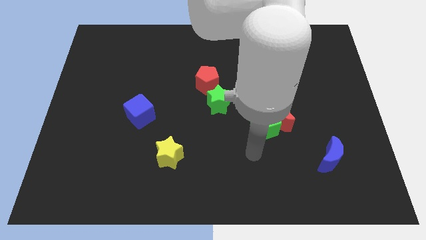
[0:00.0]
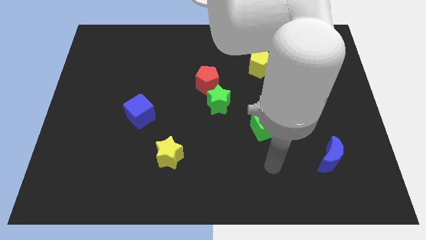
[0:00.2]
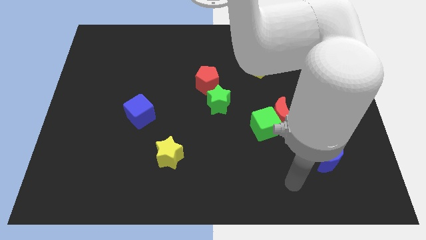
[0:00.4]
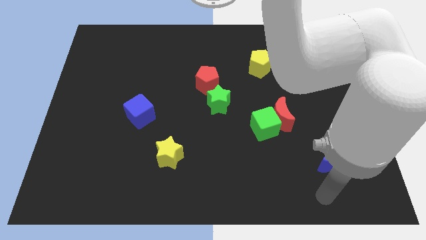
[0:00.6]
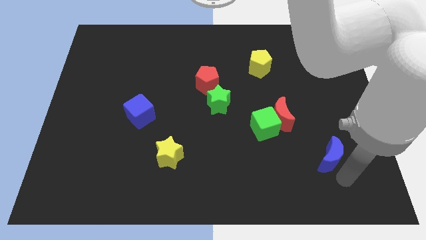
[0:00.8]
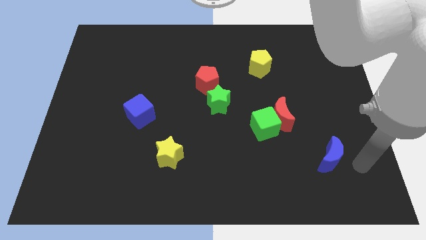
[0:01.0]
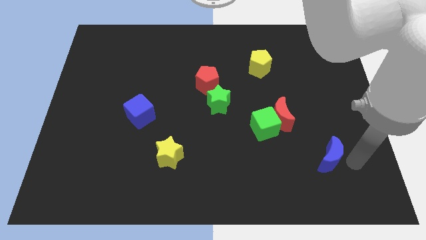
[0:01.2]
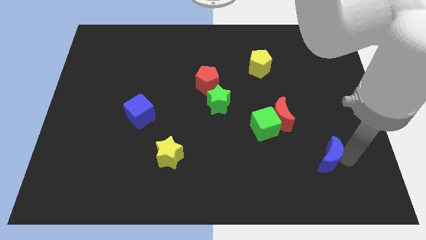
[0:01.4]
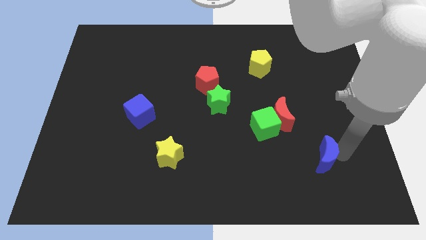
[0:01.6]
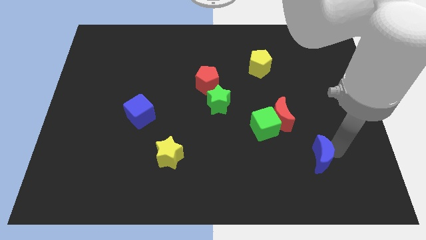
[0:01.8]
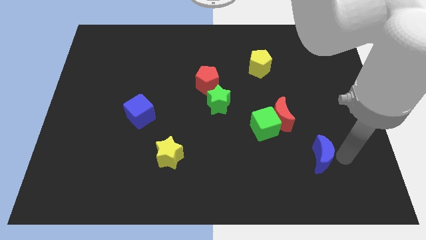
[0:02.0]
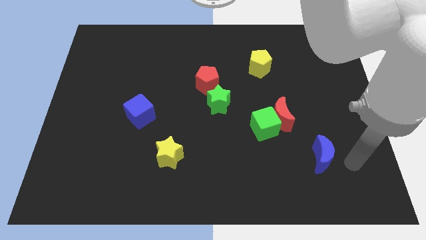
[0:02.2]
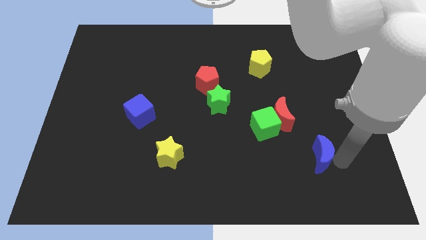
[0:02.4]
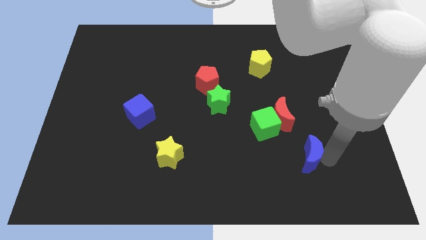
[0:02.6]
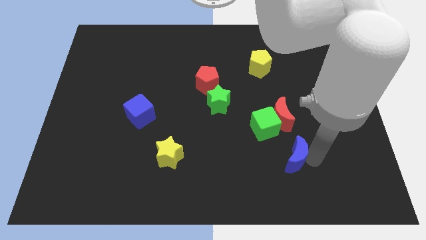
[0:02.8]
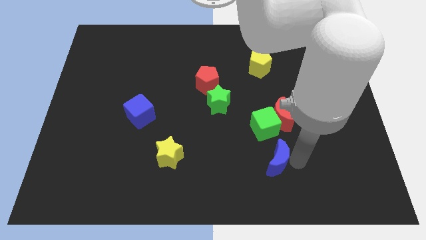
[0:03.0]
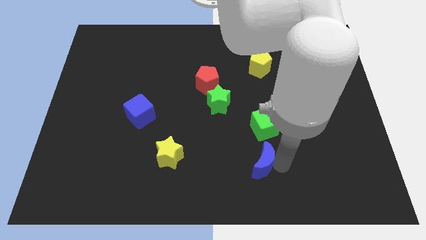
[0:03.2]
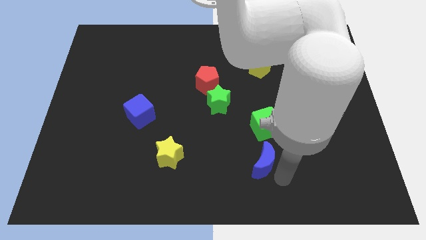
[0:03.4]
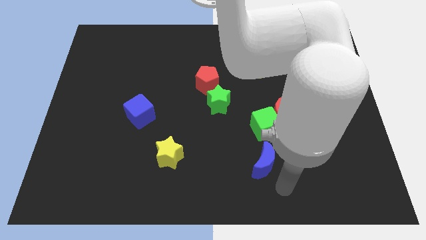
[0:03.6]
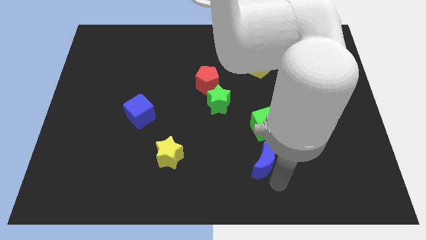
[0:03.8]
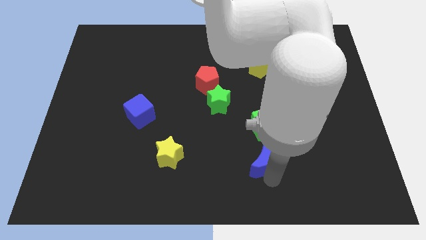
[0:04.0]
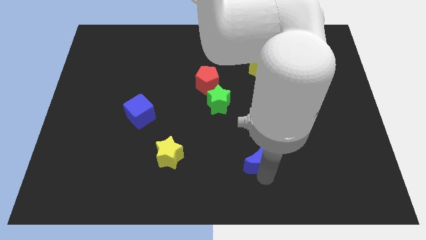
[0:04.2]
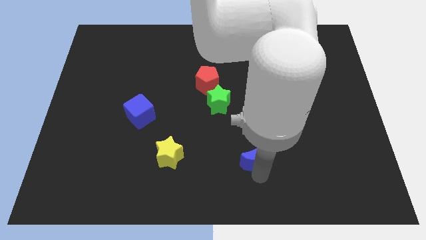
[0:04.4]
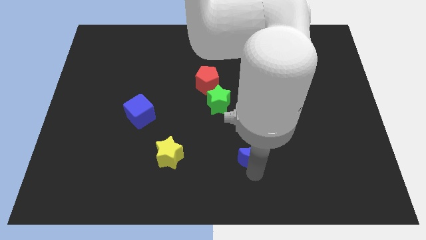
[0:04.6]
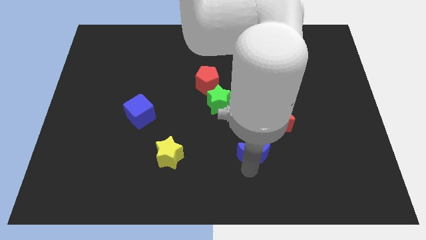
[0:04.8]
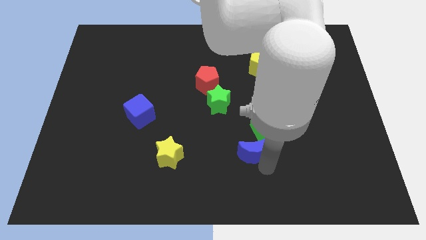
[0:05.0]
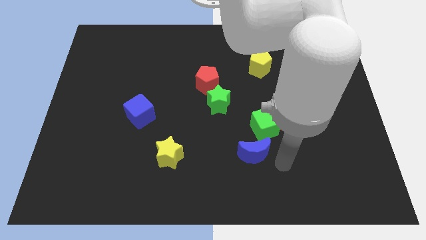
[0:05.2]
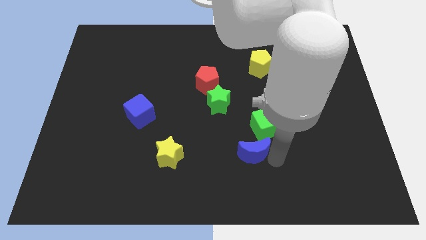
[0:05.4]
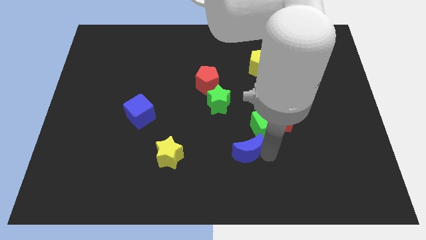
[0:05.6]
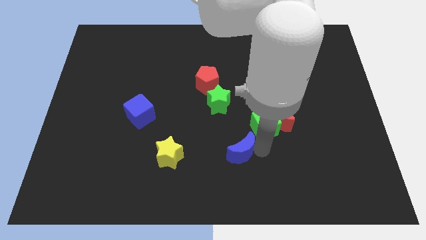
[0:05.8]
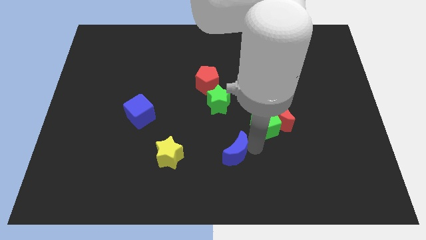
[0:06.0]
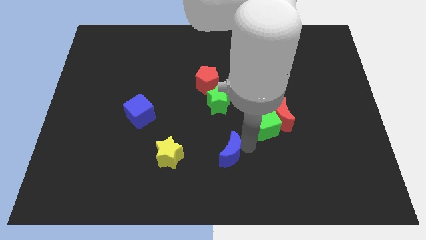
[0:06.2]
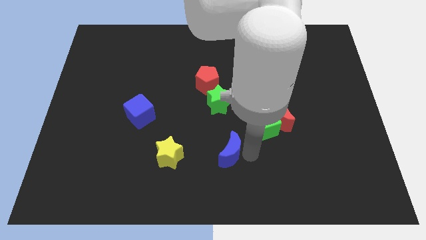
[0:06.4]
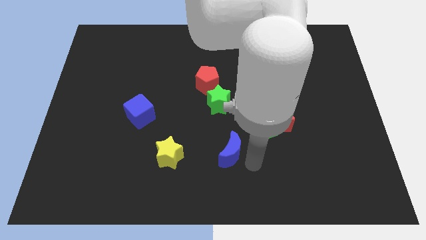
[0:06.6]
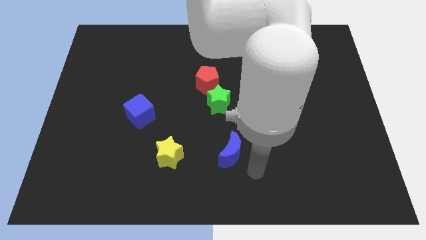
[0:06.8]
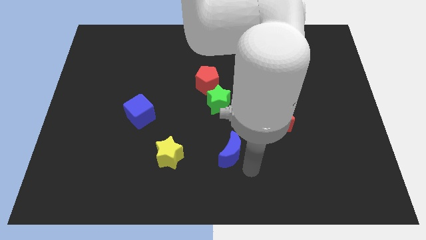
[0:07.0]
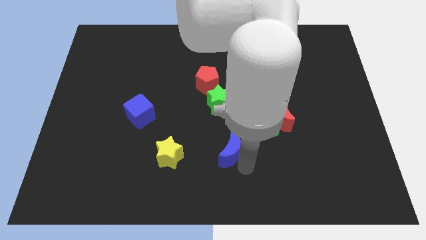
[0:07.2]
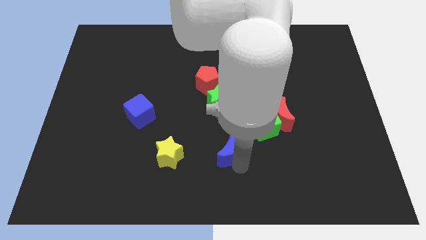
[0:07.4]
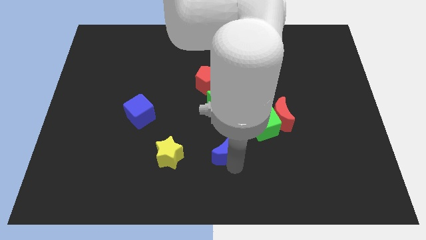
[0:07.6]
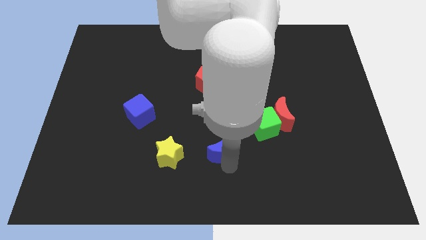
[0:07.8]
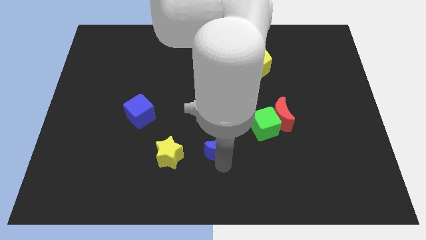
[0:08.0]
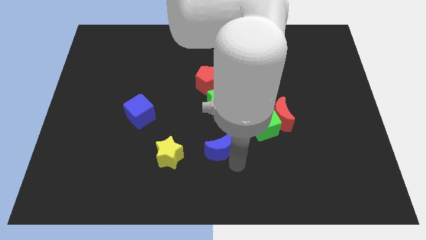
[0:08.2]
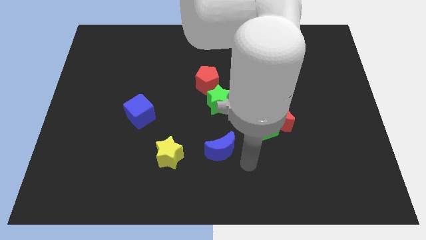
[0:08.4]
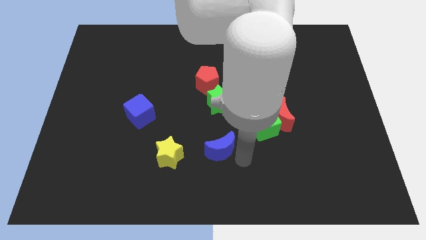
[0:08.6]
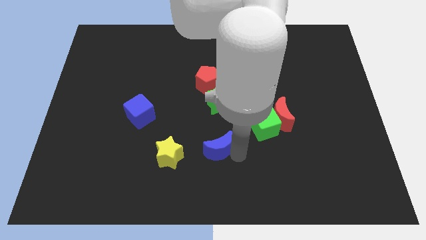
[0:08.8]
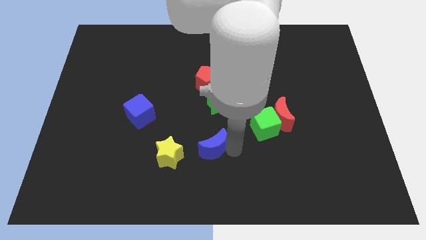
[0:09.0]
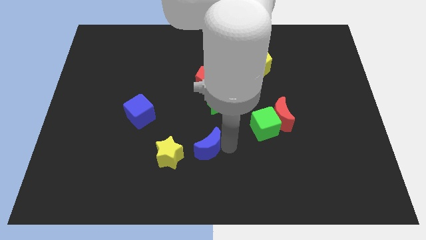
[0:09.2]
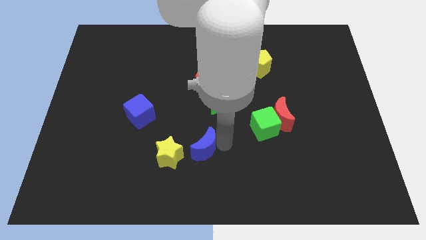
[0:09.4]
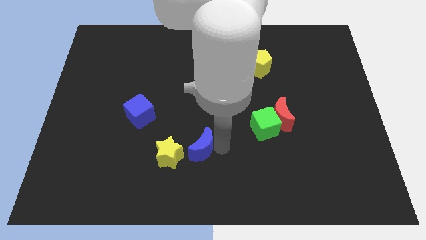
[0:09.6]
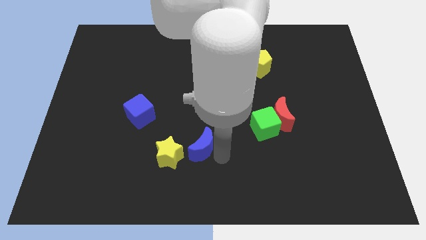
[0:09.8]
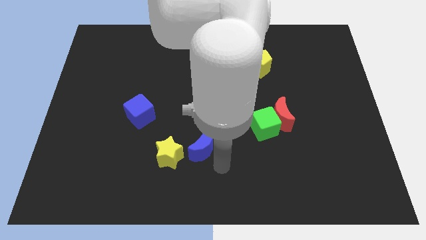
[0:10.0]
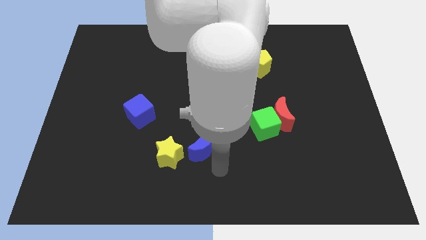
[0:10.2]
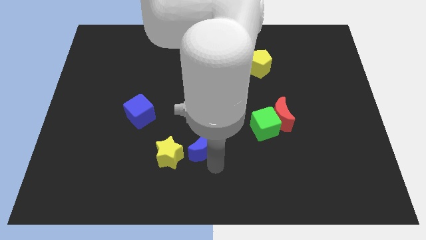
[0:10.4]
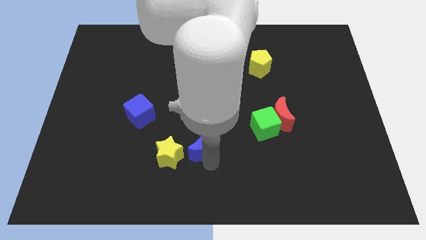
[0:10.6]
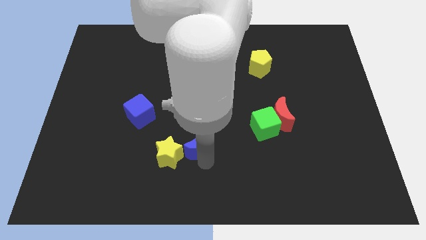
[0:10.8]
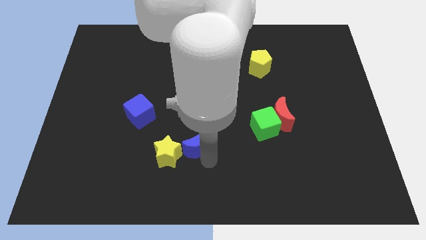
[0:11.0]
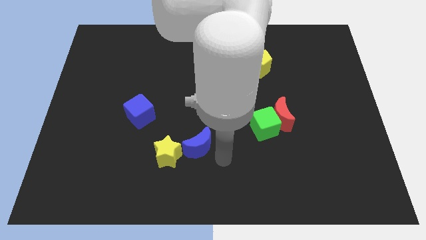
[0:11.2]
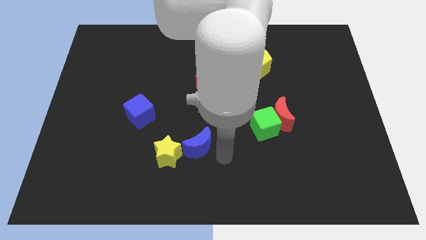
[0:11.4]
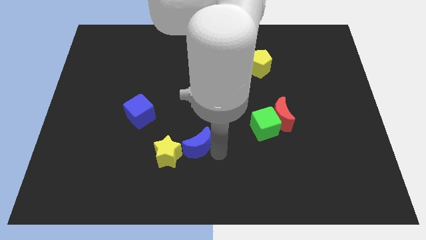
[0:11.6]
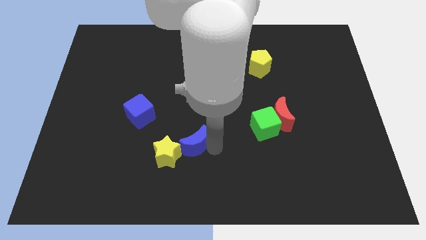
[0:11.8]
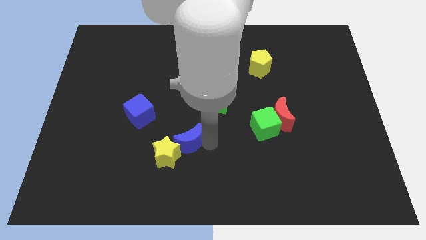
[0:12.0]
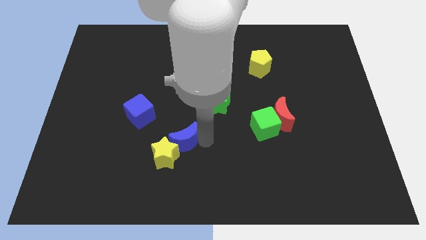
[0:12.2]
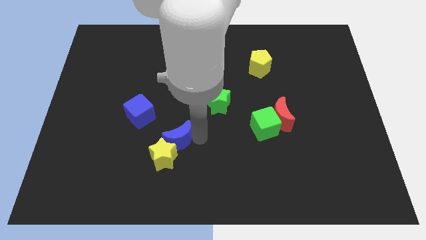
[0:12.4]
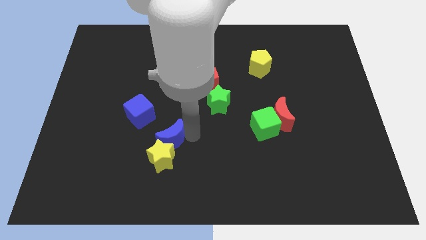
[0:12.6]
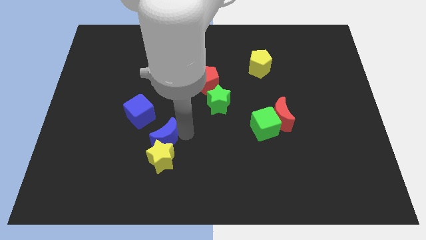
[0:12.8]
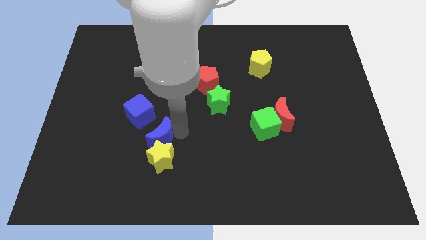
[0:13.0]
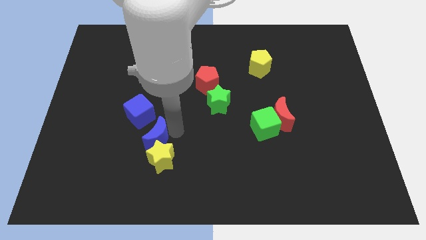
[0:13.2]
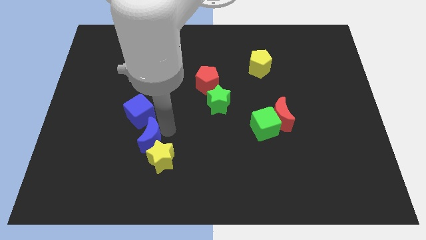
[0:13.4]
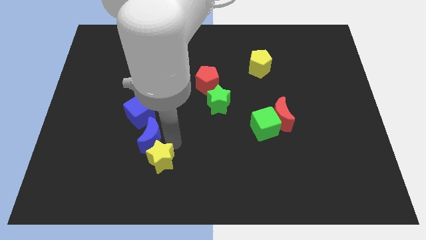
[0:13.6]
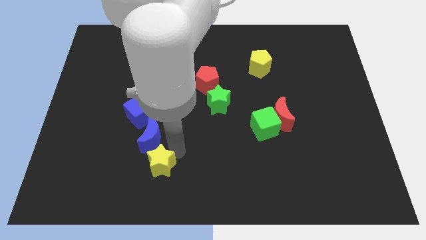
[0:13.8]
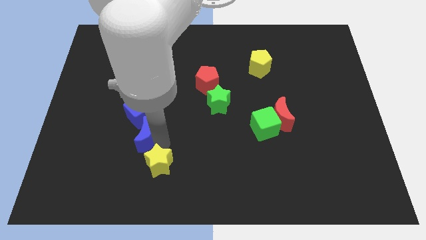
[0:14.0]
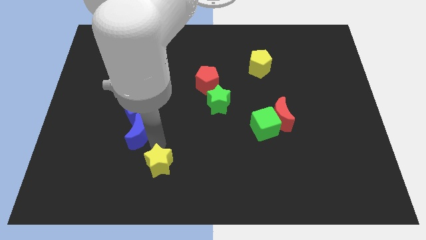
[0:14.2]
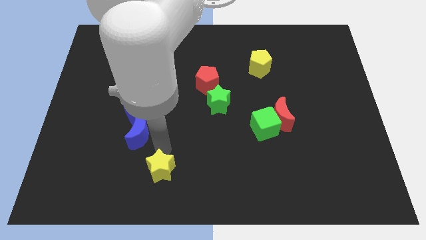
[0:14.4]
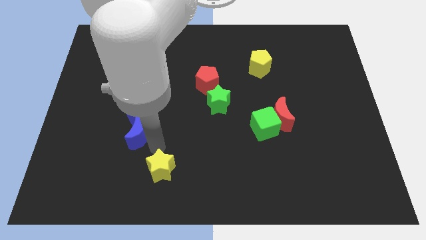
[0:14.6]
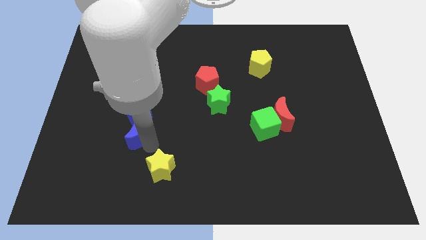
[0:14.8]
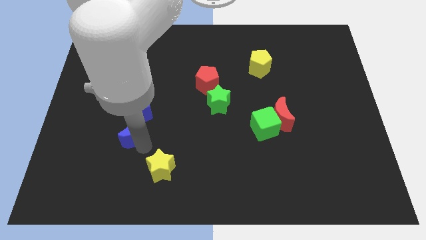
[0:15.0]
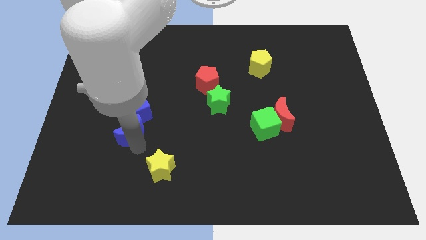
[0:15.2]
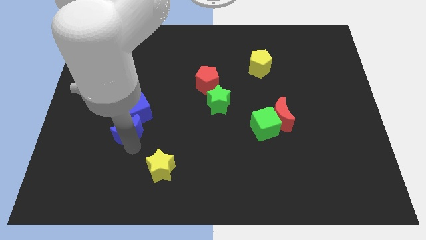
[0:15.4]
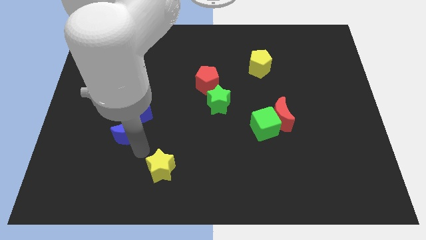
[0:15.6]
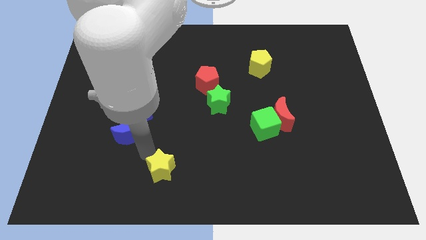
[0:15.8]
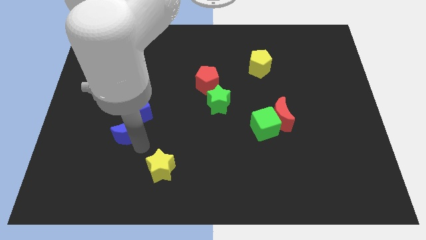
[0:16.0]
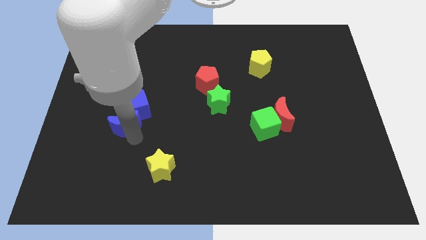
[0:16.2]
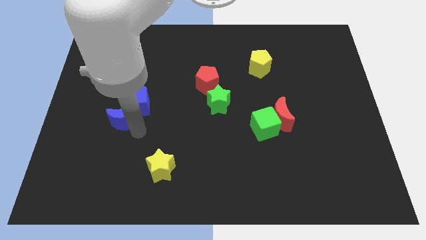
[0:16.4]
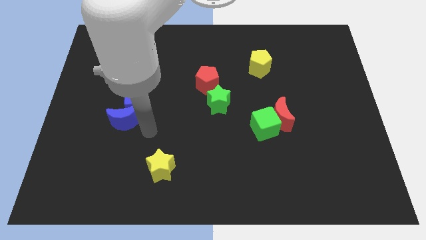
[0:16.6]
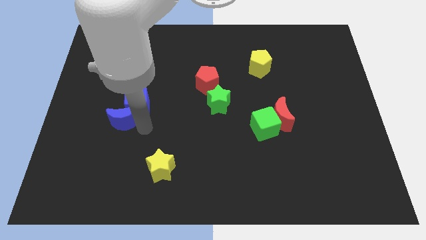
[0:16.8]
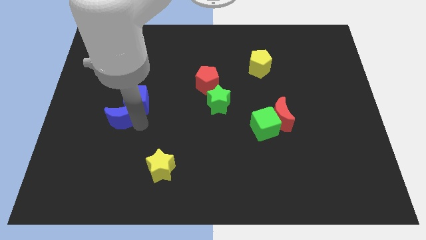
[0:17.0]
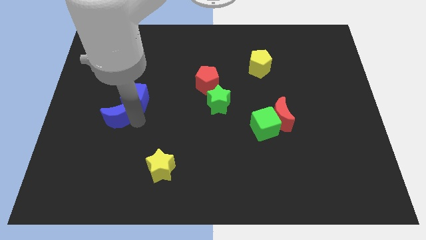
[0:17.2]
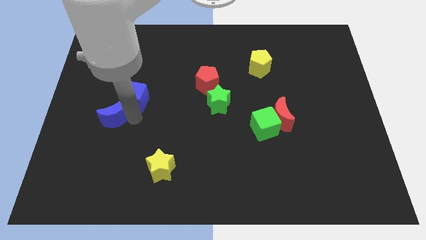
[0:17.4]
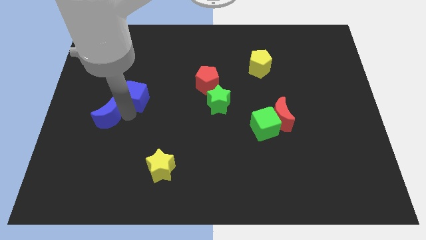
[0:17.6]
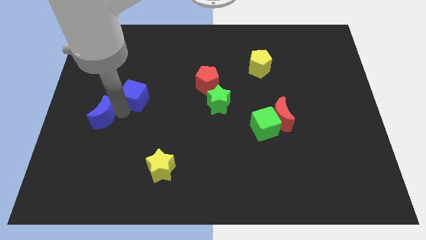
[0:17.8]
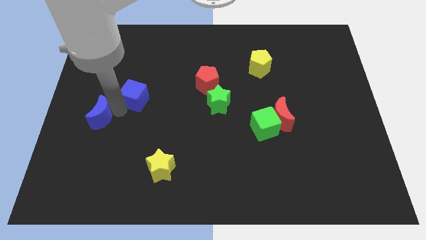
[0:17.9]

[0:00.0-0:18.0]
slide the blue moon to the left side
